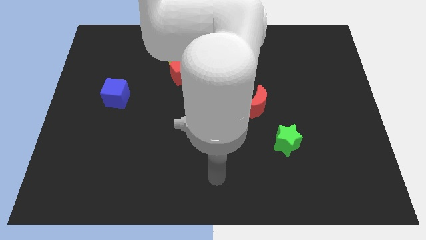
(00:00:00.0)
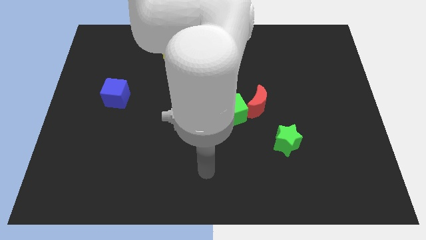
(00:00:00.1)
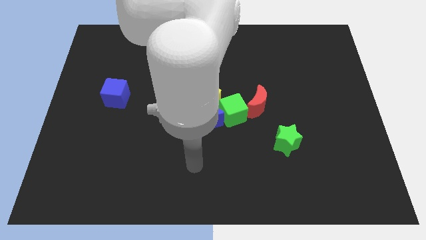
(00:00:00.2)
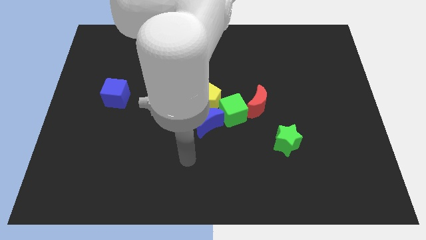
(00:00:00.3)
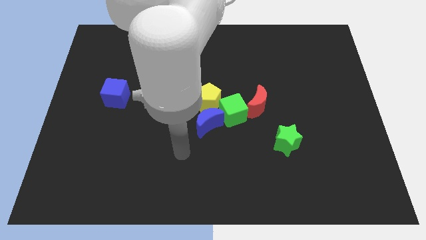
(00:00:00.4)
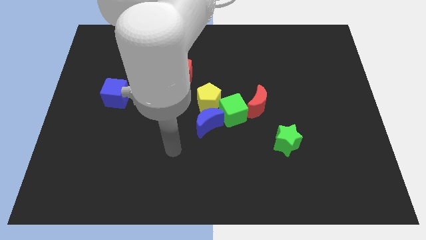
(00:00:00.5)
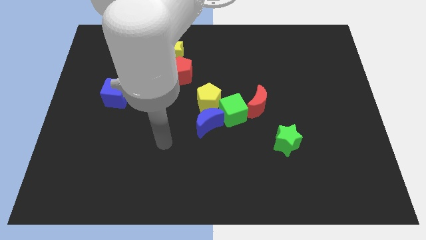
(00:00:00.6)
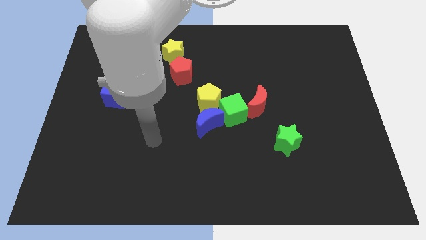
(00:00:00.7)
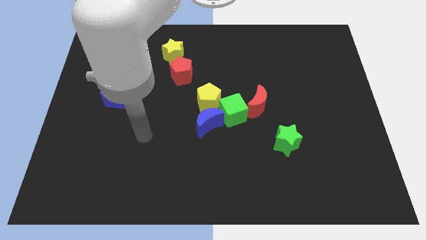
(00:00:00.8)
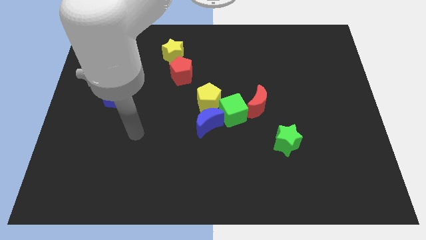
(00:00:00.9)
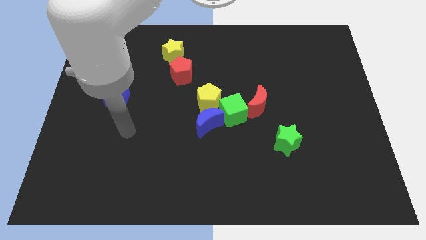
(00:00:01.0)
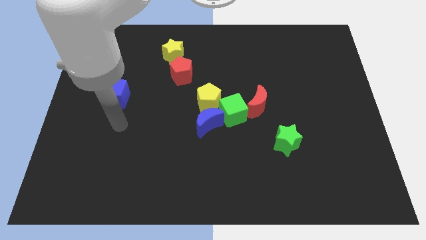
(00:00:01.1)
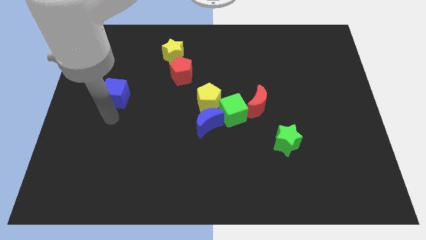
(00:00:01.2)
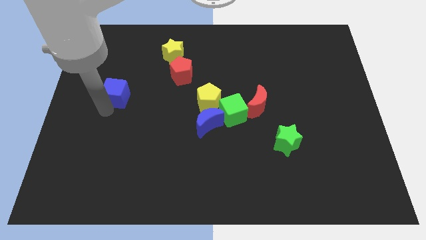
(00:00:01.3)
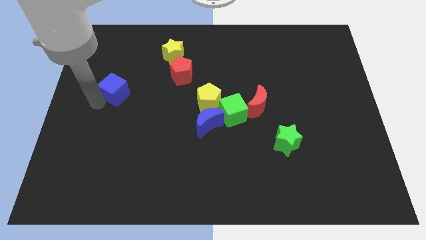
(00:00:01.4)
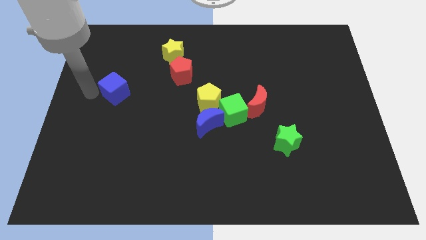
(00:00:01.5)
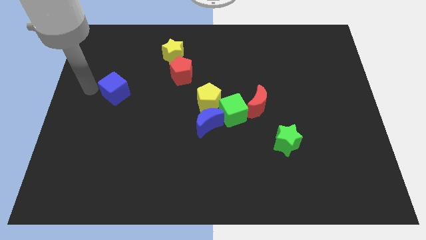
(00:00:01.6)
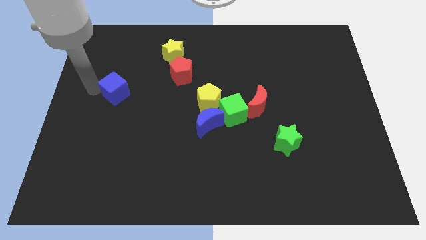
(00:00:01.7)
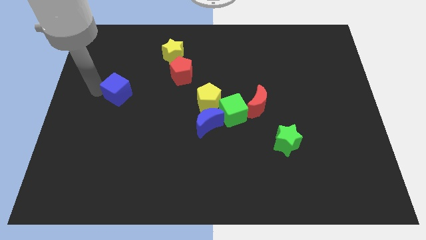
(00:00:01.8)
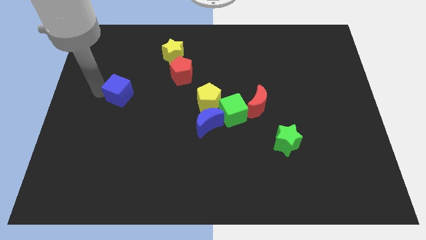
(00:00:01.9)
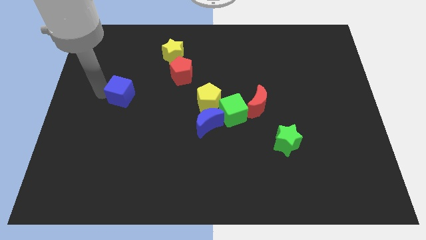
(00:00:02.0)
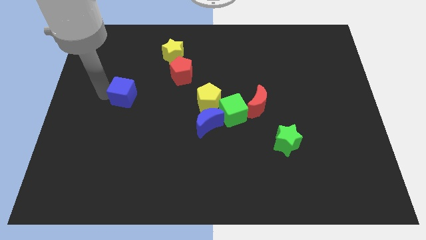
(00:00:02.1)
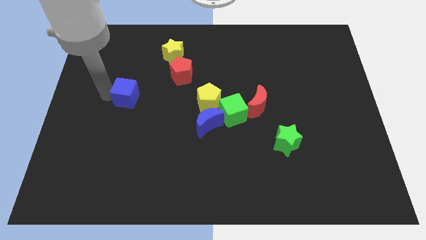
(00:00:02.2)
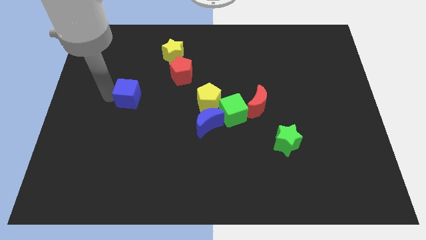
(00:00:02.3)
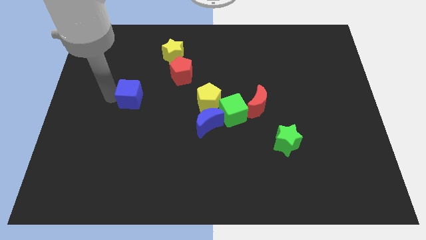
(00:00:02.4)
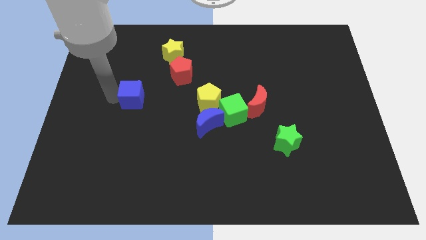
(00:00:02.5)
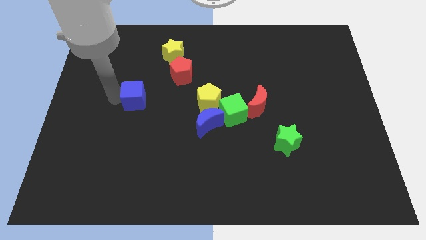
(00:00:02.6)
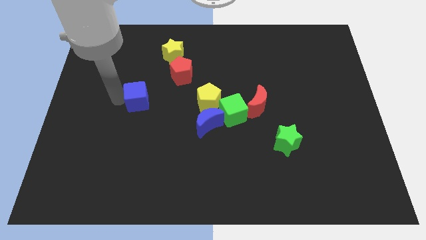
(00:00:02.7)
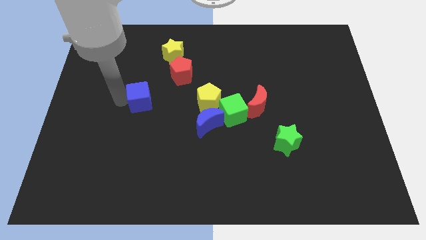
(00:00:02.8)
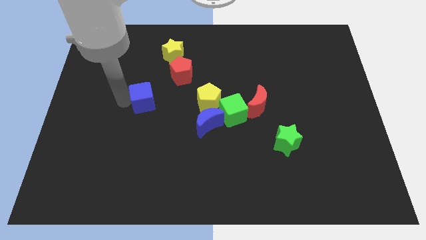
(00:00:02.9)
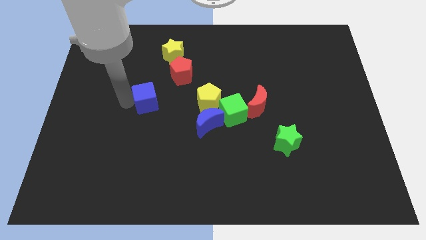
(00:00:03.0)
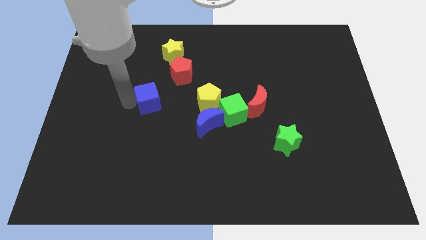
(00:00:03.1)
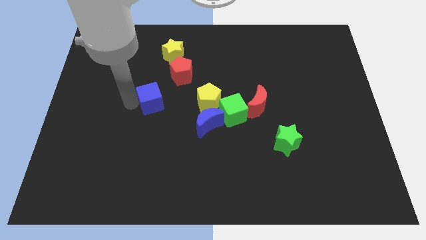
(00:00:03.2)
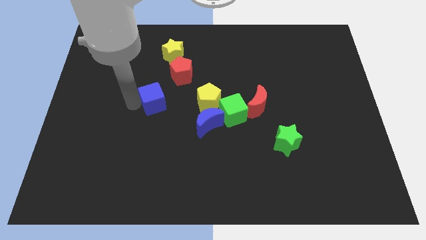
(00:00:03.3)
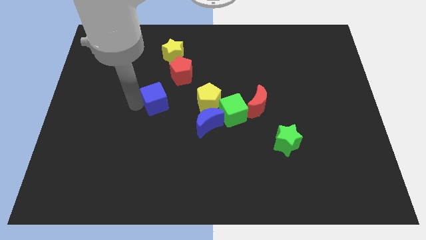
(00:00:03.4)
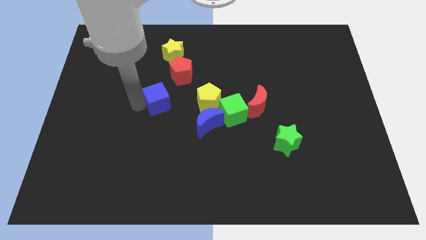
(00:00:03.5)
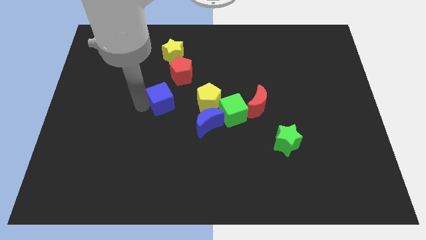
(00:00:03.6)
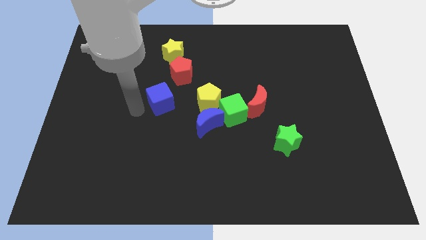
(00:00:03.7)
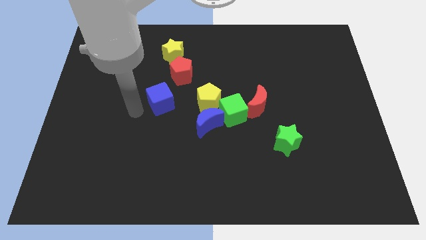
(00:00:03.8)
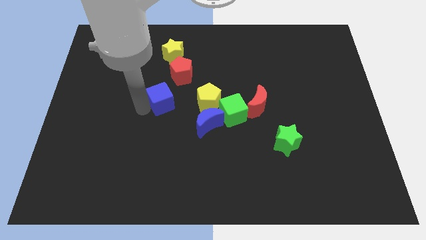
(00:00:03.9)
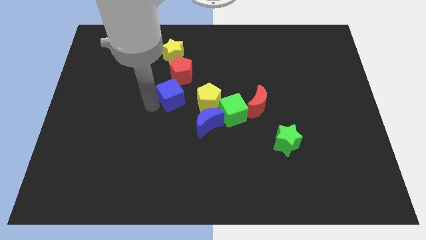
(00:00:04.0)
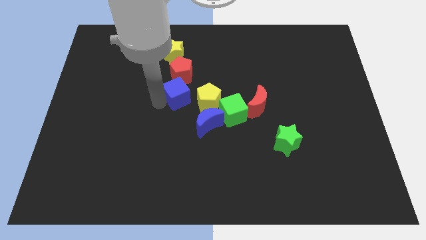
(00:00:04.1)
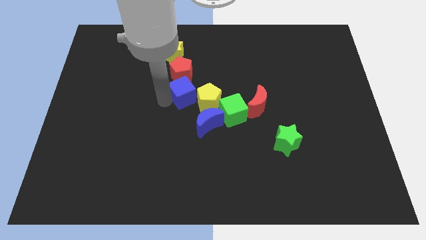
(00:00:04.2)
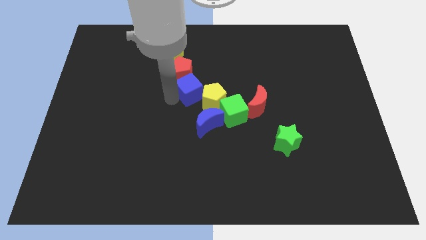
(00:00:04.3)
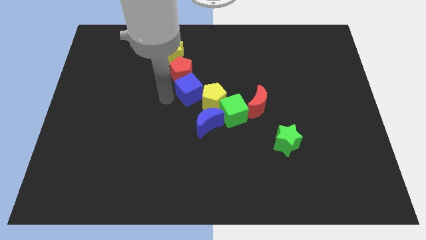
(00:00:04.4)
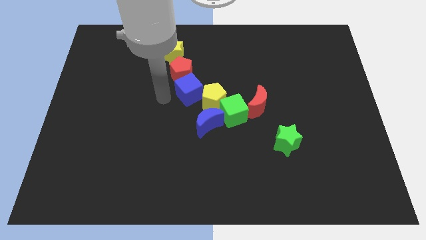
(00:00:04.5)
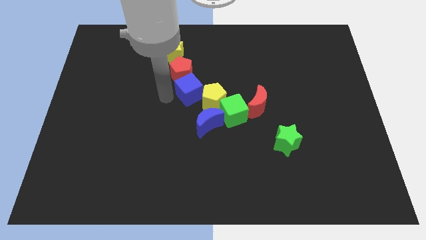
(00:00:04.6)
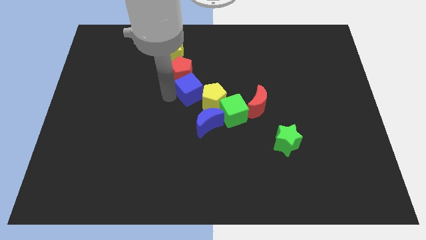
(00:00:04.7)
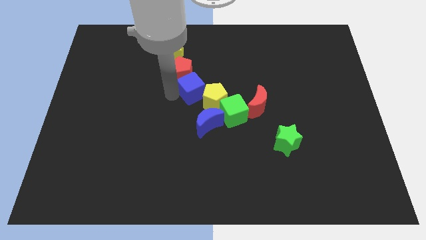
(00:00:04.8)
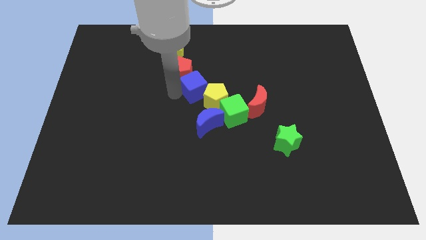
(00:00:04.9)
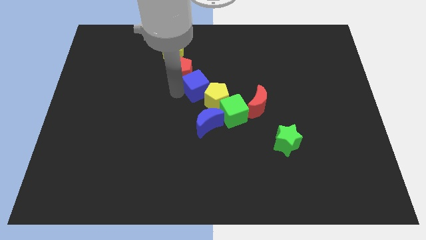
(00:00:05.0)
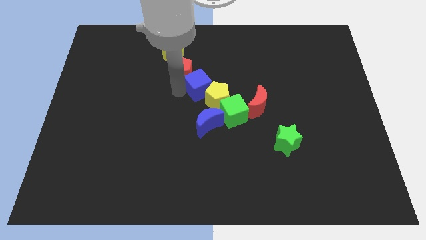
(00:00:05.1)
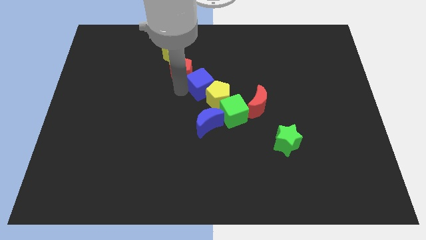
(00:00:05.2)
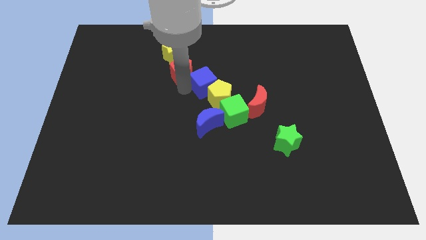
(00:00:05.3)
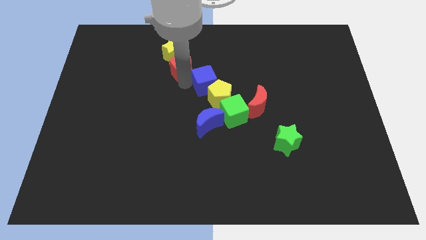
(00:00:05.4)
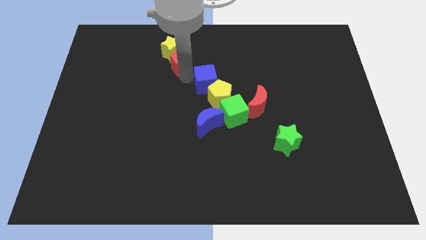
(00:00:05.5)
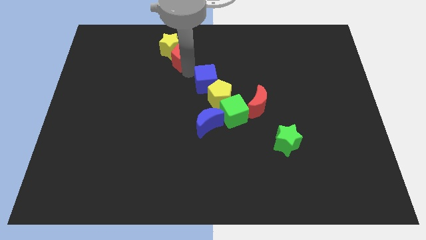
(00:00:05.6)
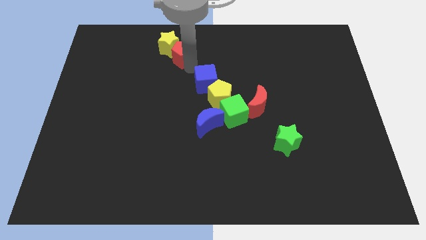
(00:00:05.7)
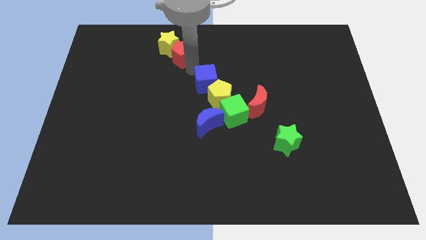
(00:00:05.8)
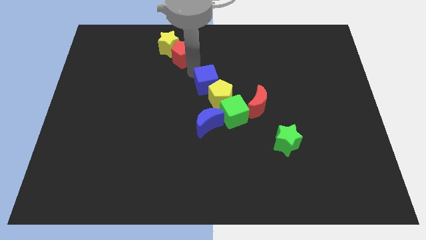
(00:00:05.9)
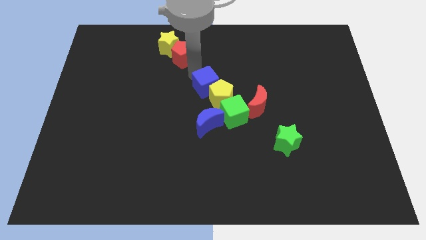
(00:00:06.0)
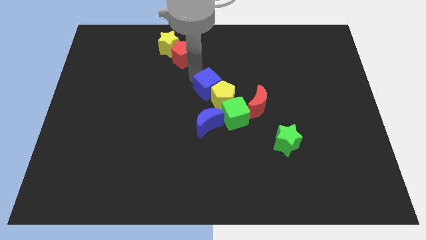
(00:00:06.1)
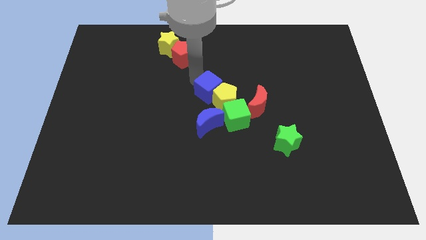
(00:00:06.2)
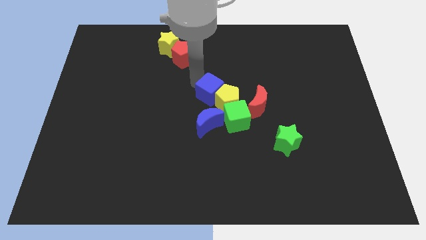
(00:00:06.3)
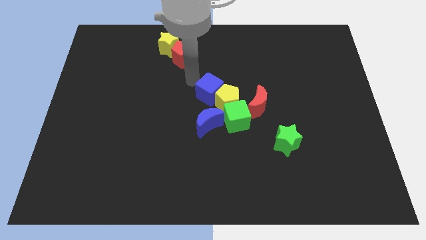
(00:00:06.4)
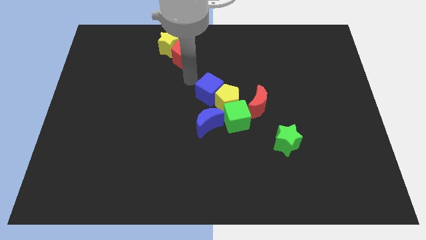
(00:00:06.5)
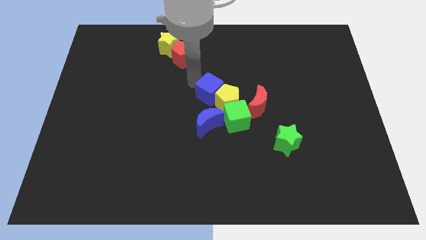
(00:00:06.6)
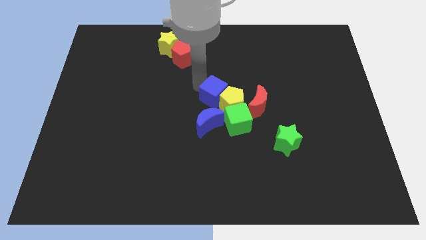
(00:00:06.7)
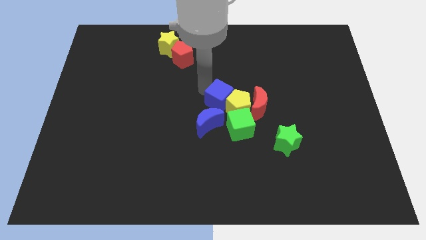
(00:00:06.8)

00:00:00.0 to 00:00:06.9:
push the blue cube to the top right side of the blue moon
